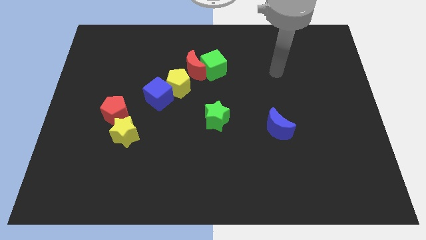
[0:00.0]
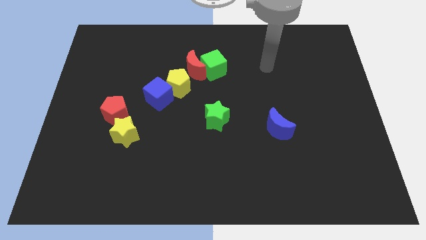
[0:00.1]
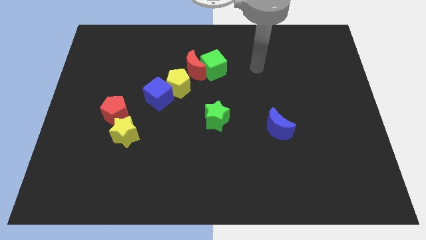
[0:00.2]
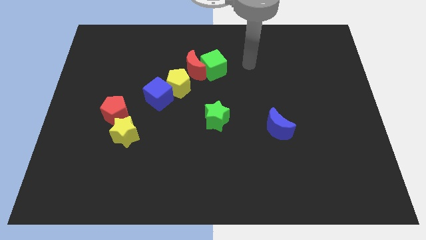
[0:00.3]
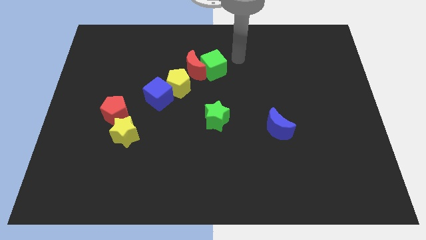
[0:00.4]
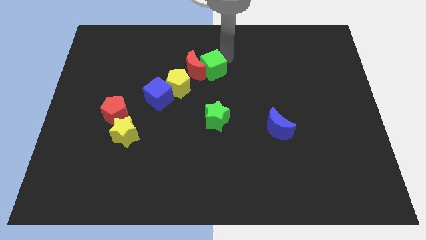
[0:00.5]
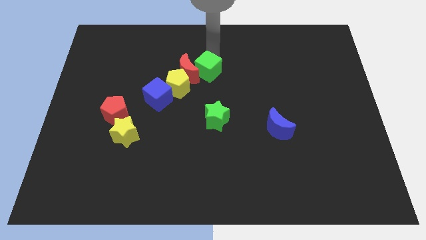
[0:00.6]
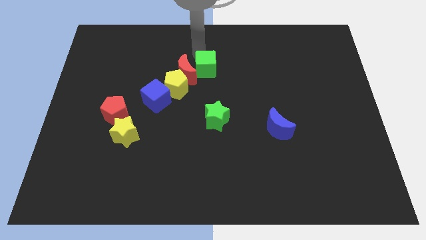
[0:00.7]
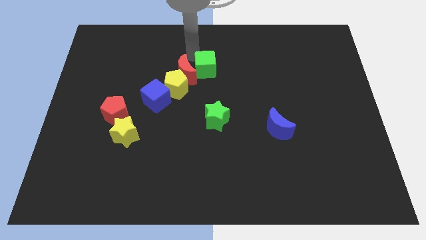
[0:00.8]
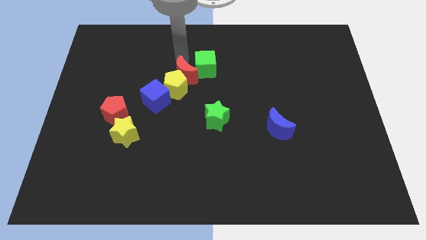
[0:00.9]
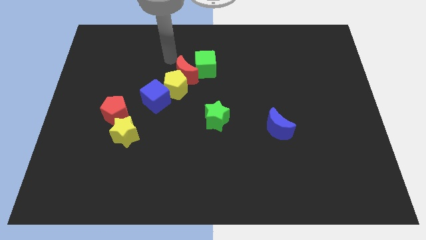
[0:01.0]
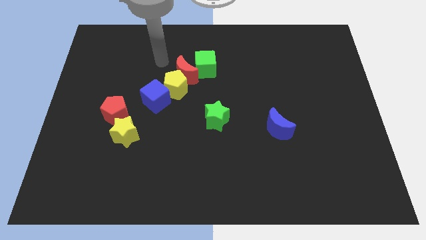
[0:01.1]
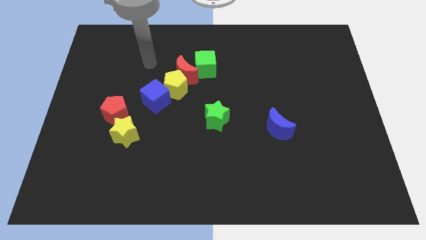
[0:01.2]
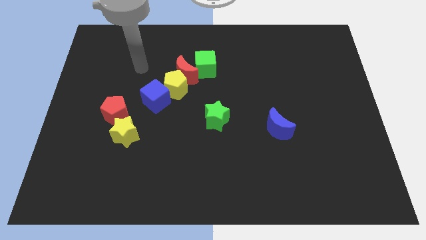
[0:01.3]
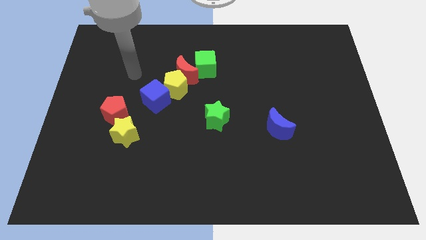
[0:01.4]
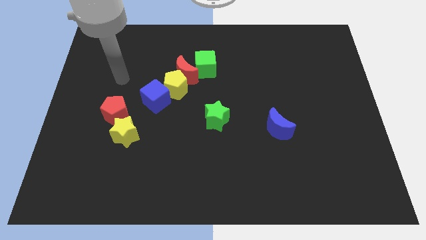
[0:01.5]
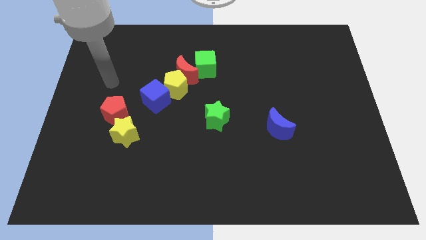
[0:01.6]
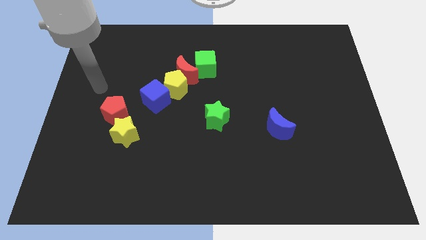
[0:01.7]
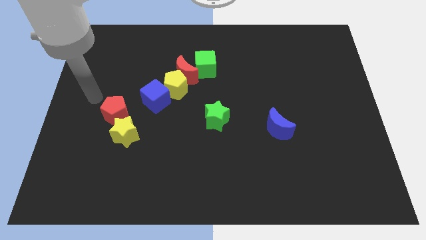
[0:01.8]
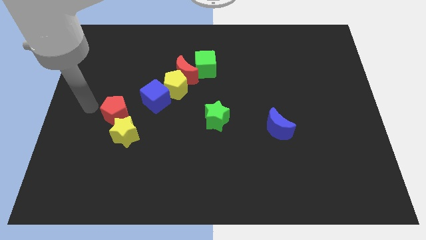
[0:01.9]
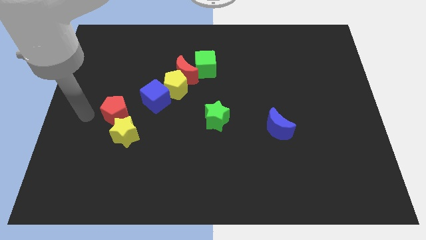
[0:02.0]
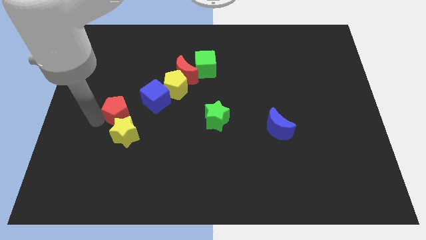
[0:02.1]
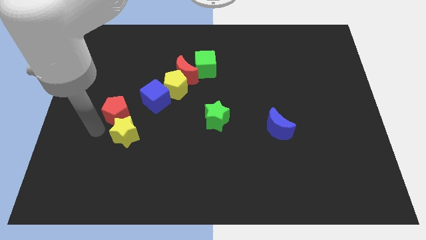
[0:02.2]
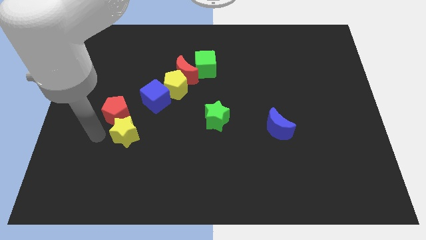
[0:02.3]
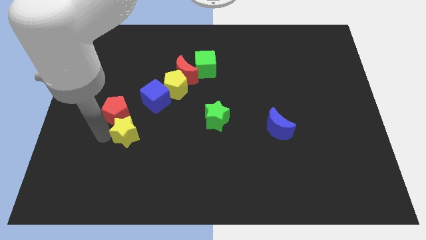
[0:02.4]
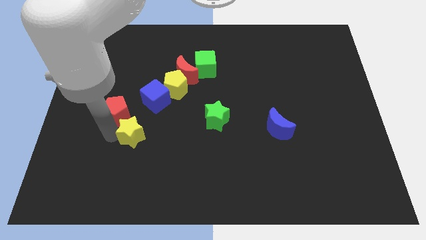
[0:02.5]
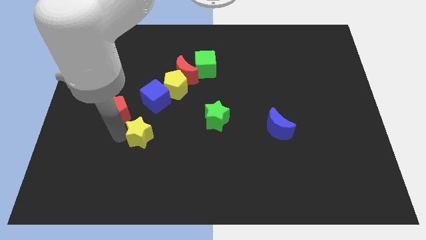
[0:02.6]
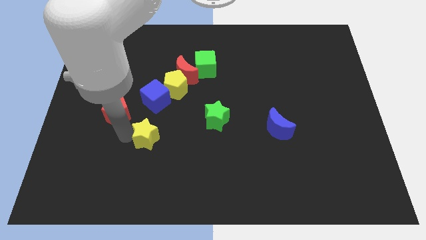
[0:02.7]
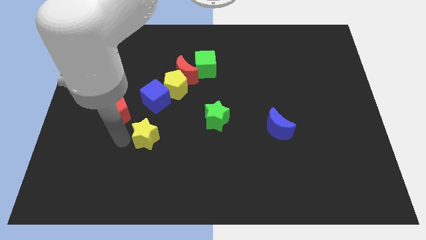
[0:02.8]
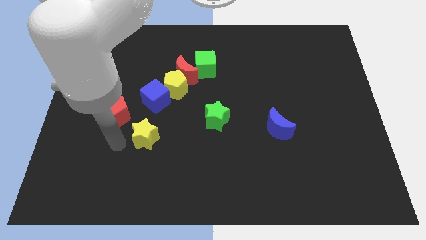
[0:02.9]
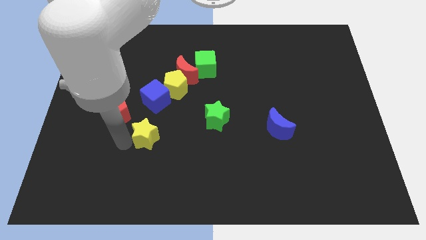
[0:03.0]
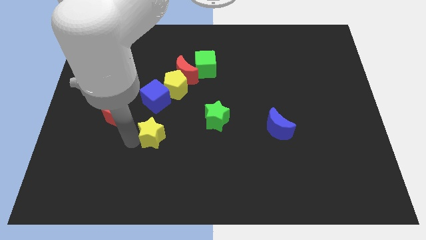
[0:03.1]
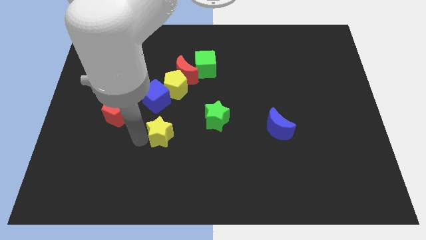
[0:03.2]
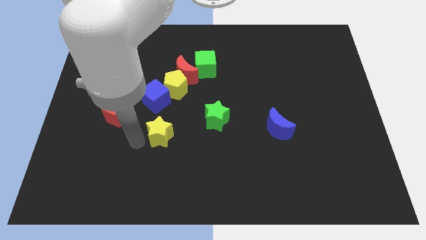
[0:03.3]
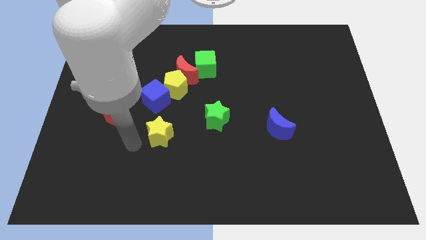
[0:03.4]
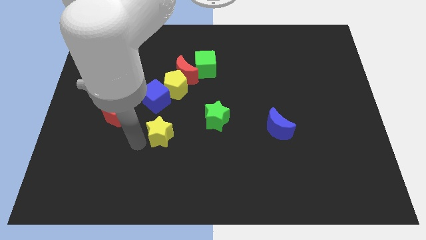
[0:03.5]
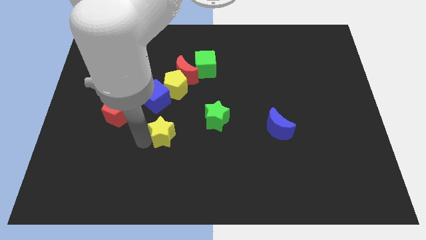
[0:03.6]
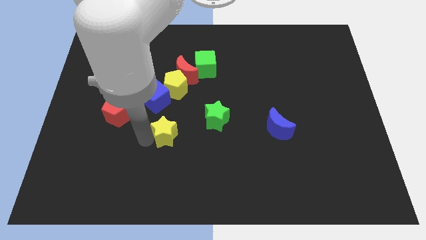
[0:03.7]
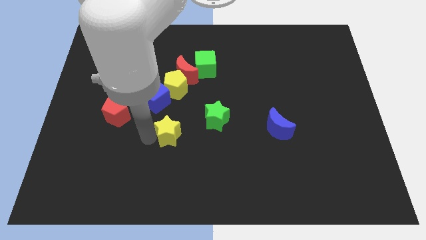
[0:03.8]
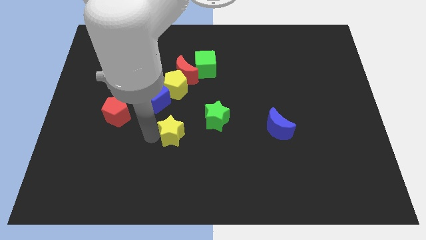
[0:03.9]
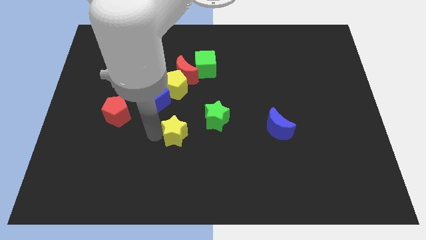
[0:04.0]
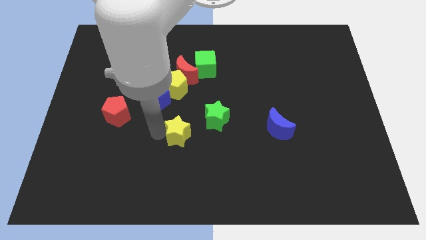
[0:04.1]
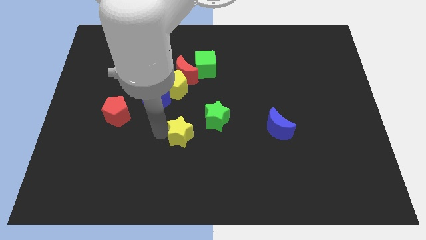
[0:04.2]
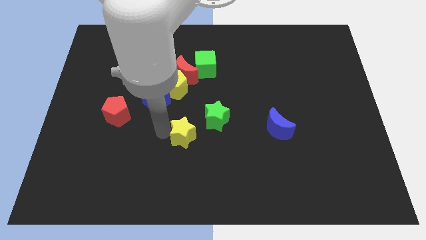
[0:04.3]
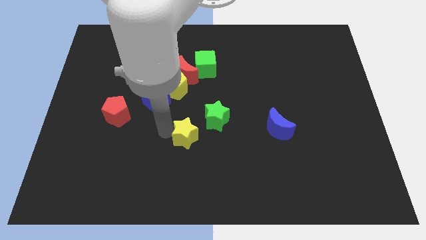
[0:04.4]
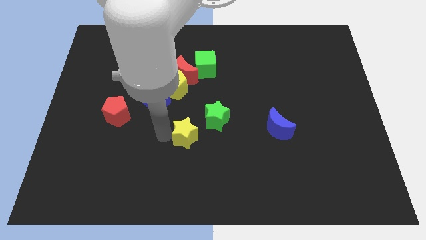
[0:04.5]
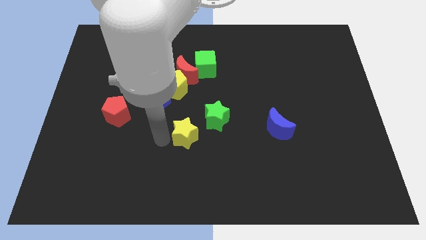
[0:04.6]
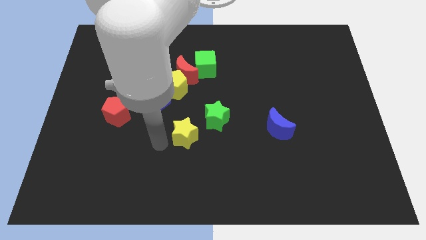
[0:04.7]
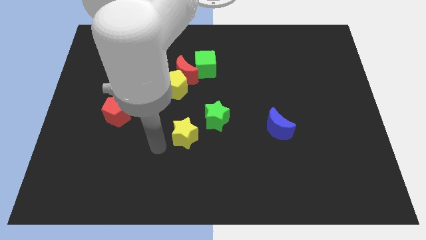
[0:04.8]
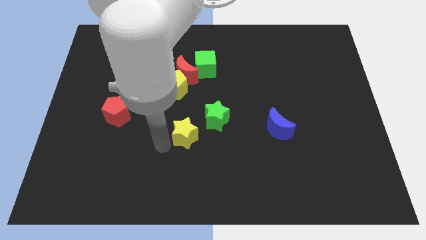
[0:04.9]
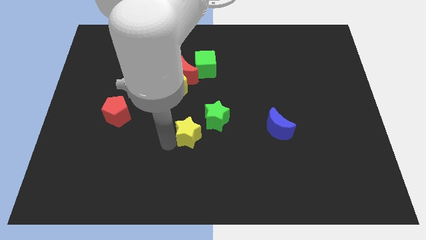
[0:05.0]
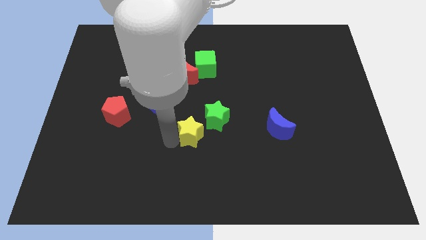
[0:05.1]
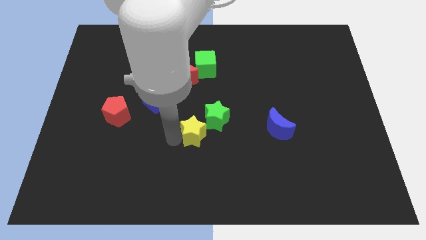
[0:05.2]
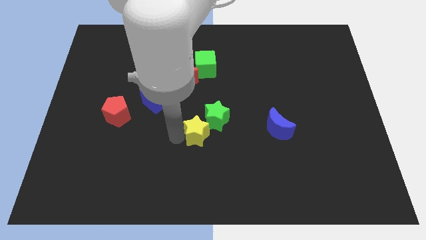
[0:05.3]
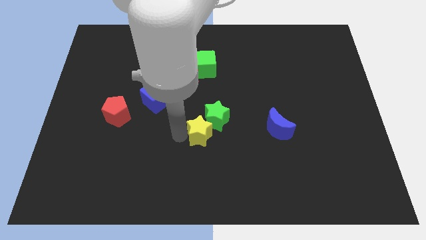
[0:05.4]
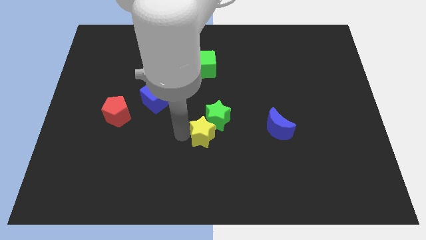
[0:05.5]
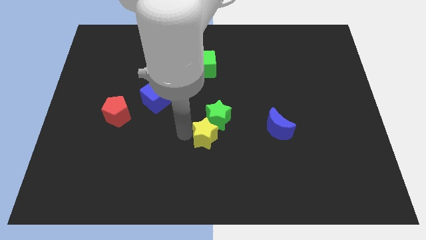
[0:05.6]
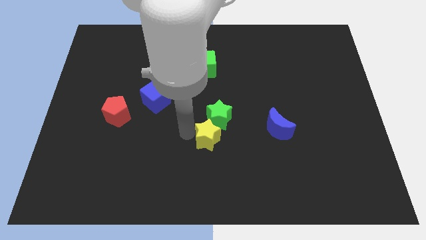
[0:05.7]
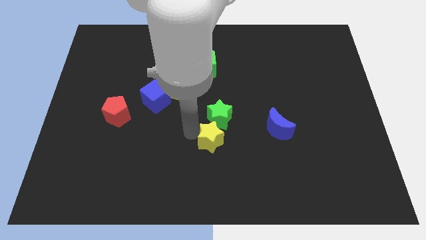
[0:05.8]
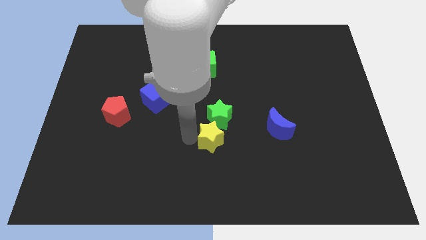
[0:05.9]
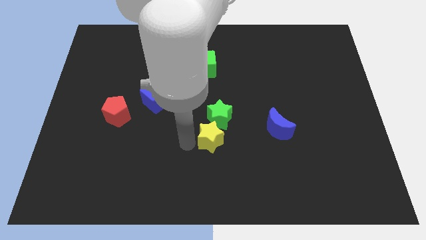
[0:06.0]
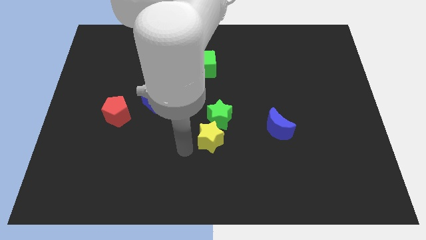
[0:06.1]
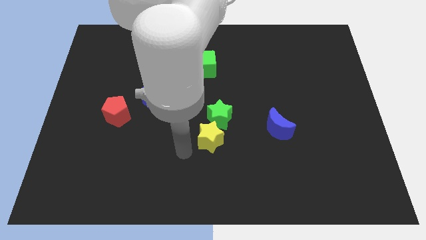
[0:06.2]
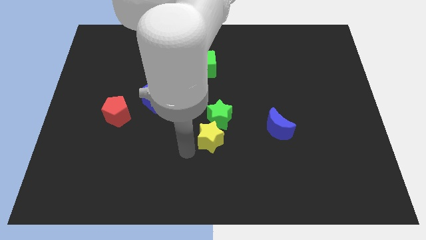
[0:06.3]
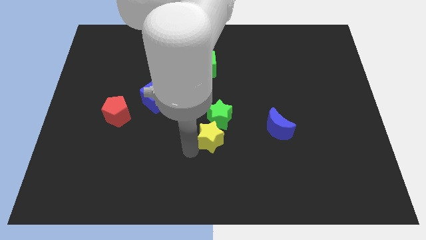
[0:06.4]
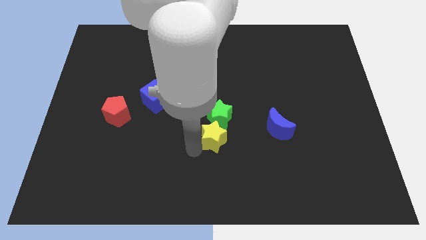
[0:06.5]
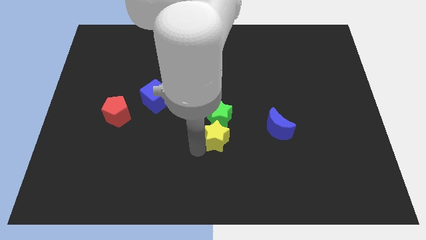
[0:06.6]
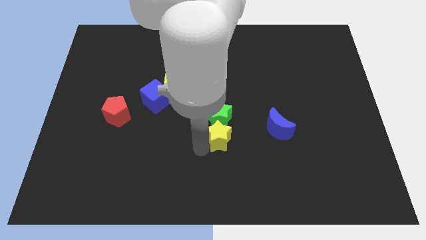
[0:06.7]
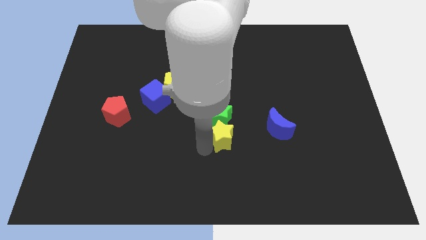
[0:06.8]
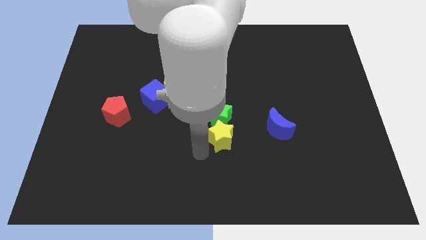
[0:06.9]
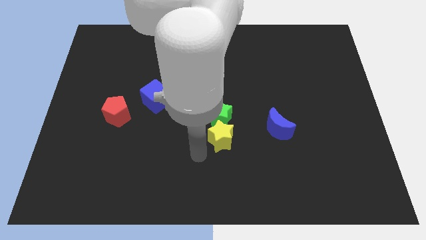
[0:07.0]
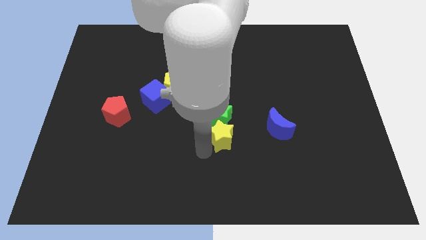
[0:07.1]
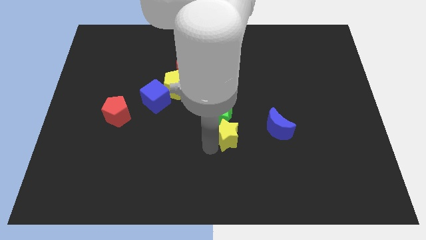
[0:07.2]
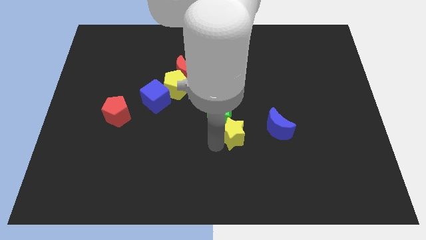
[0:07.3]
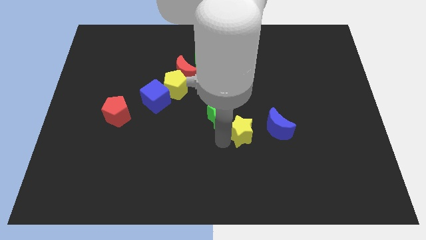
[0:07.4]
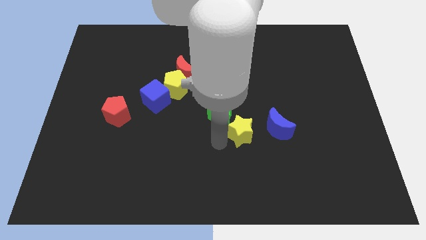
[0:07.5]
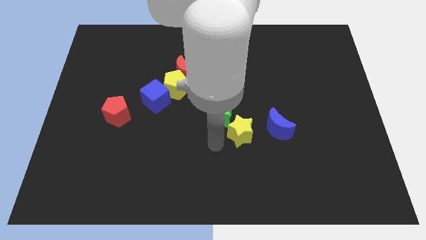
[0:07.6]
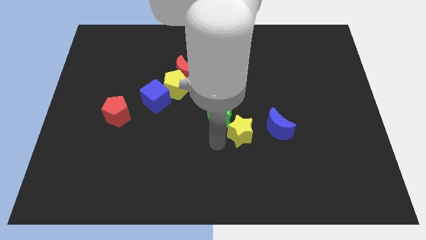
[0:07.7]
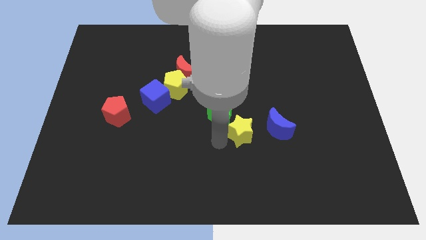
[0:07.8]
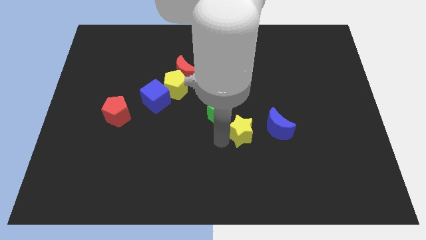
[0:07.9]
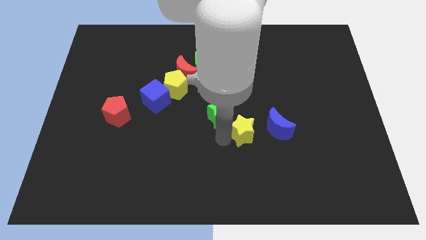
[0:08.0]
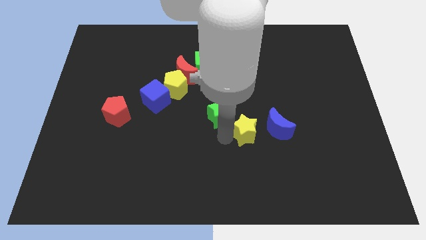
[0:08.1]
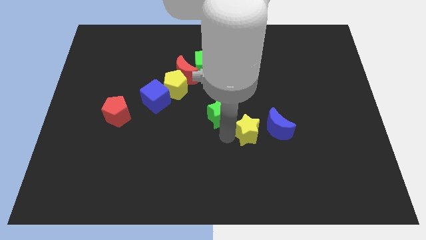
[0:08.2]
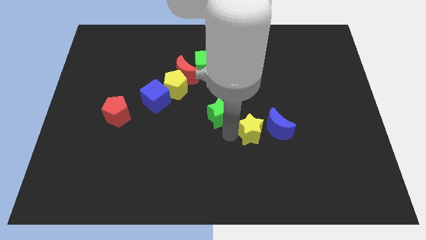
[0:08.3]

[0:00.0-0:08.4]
move the yellow star to the blue moon
